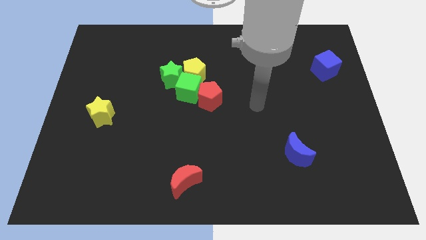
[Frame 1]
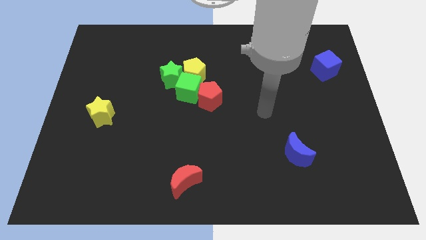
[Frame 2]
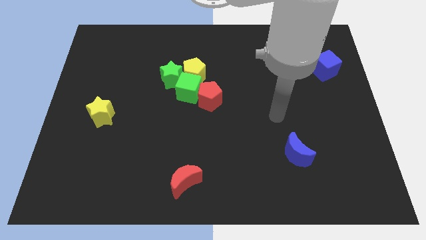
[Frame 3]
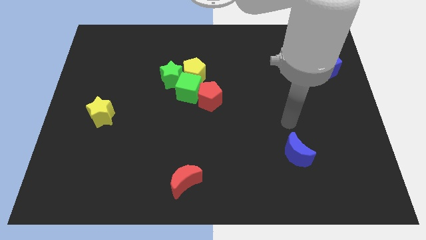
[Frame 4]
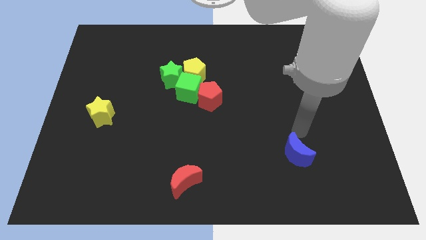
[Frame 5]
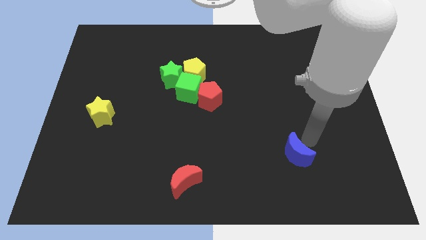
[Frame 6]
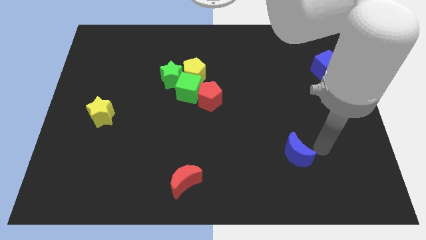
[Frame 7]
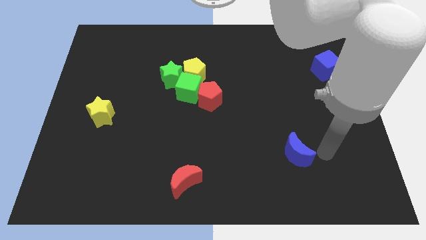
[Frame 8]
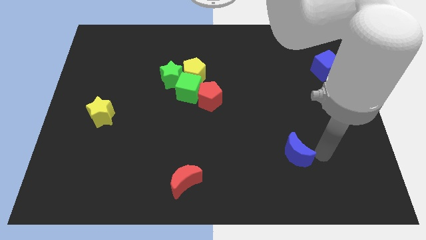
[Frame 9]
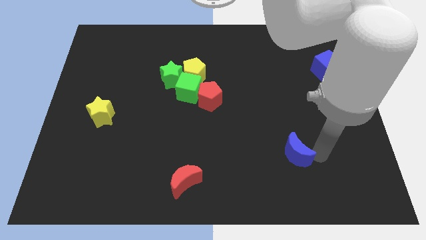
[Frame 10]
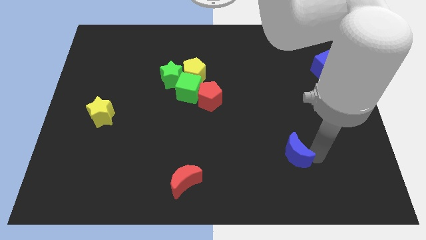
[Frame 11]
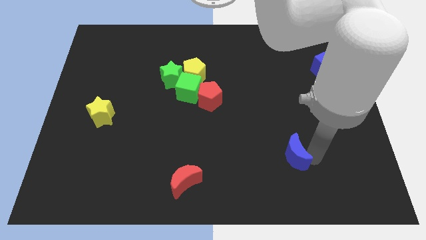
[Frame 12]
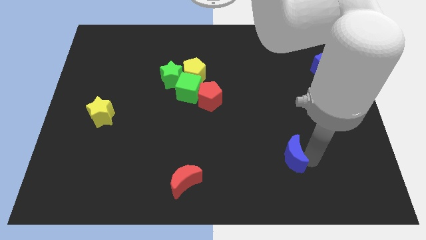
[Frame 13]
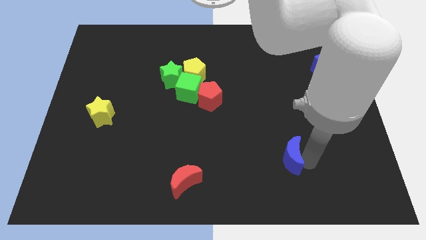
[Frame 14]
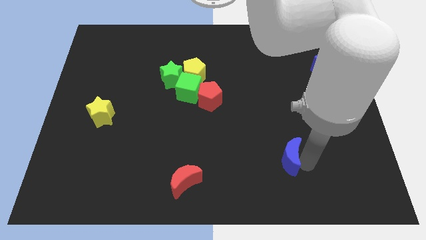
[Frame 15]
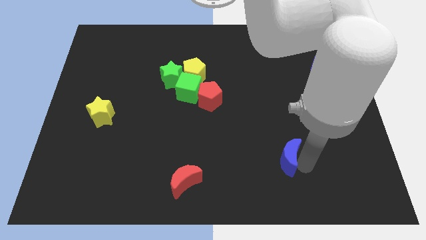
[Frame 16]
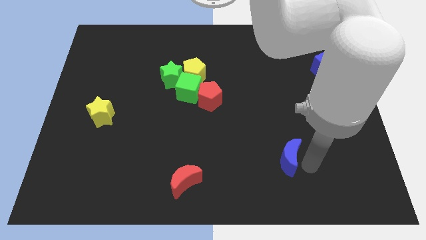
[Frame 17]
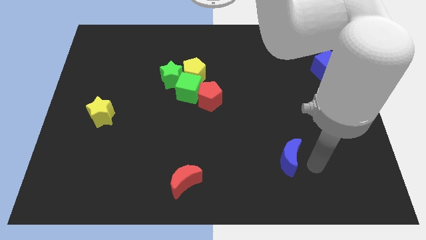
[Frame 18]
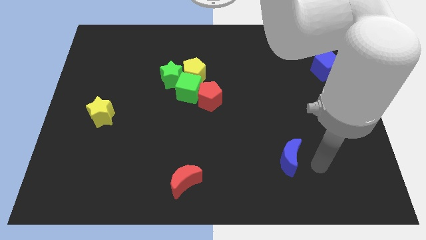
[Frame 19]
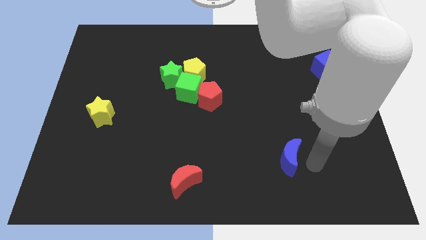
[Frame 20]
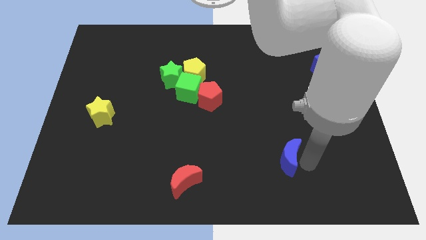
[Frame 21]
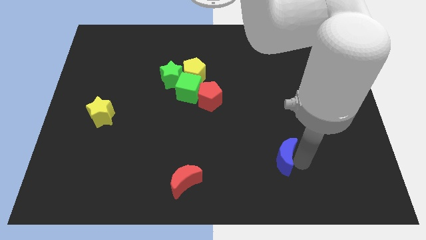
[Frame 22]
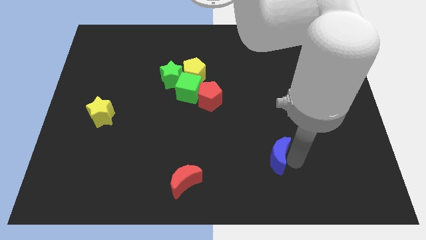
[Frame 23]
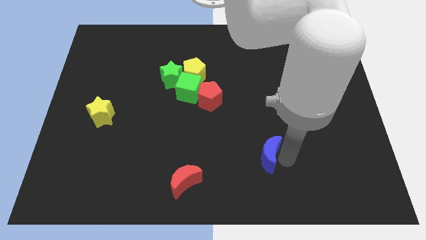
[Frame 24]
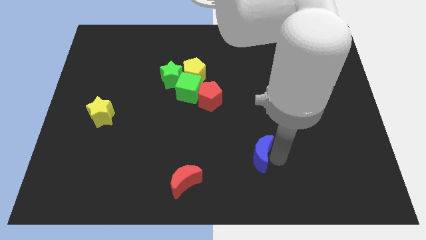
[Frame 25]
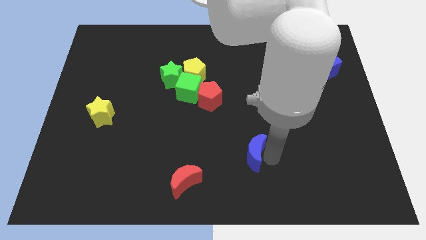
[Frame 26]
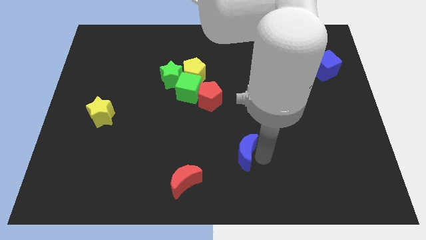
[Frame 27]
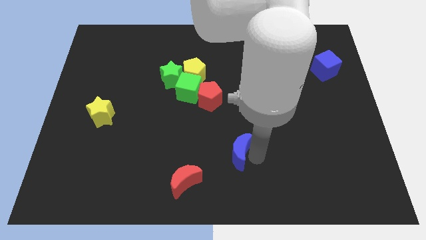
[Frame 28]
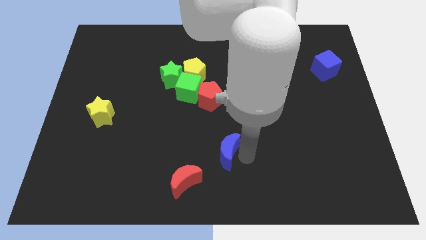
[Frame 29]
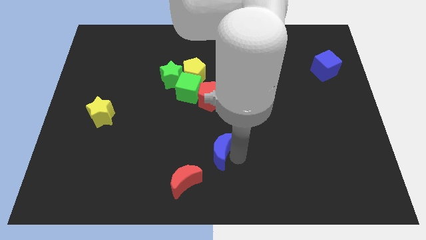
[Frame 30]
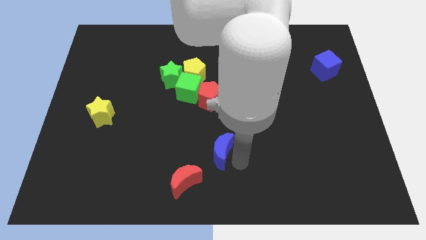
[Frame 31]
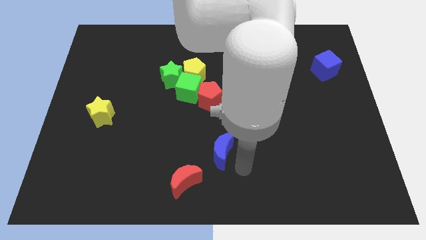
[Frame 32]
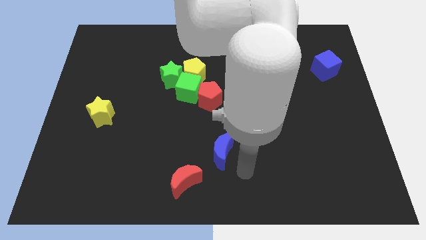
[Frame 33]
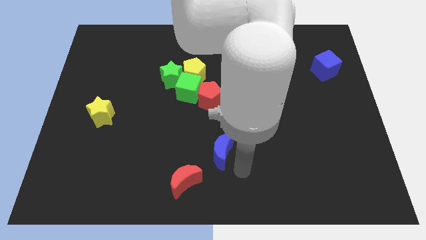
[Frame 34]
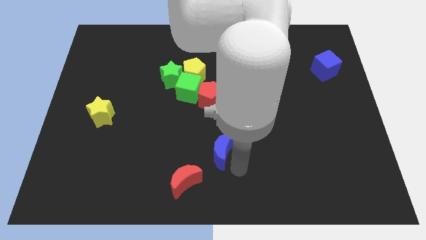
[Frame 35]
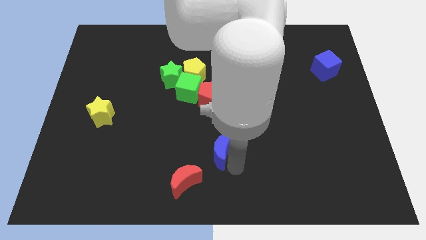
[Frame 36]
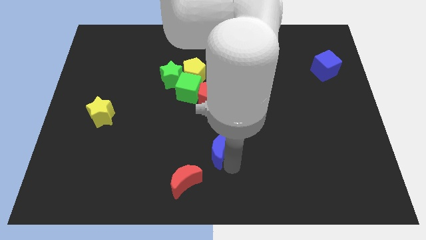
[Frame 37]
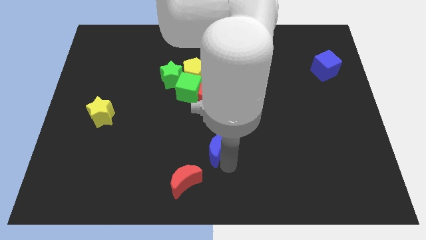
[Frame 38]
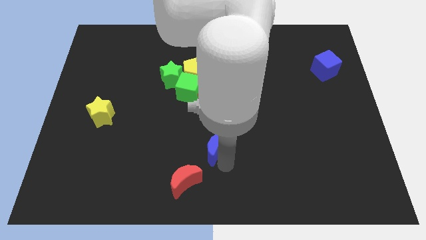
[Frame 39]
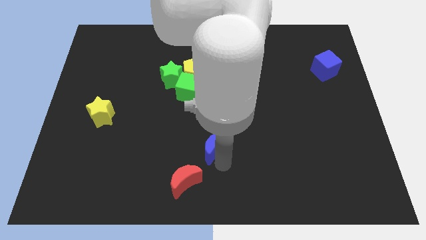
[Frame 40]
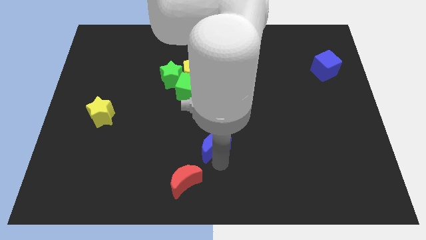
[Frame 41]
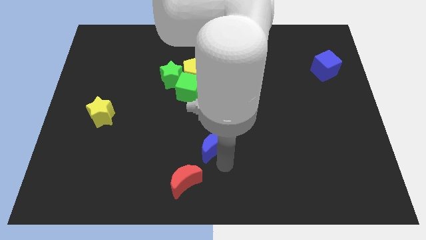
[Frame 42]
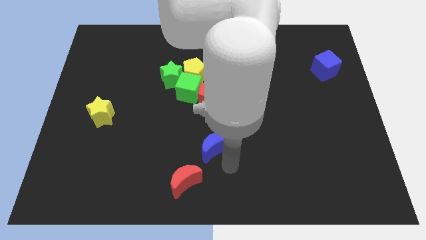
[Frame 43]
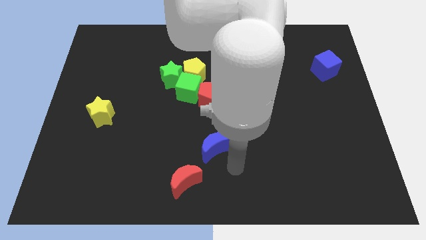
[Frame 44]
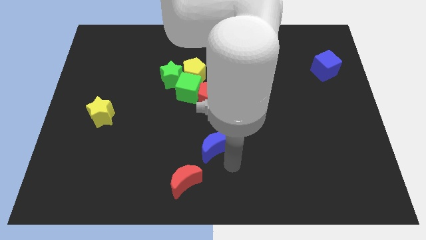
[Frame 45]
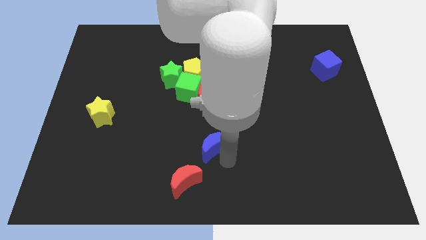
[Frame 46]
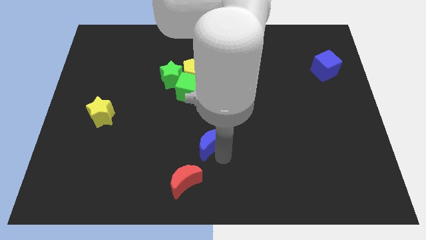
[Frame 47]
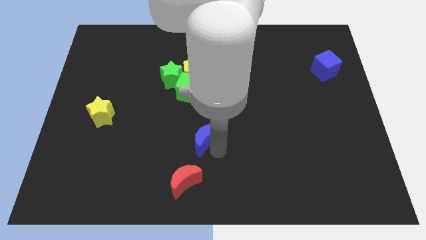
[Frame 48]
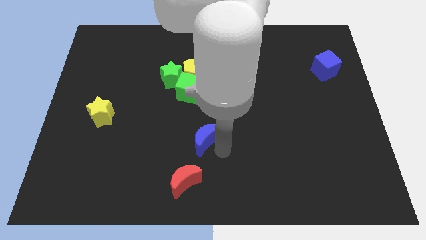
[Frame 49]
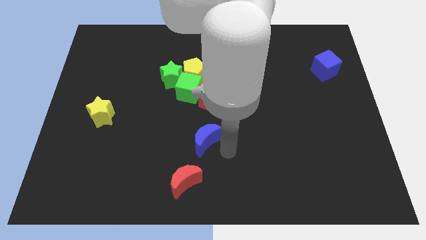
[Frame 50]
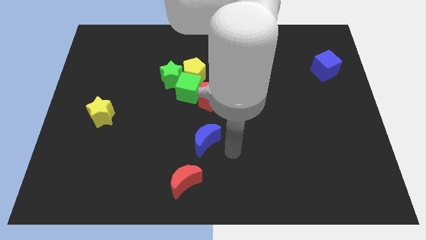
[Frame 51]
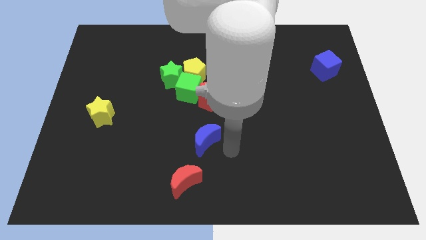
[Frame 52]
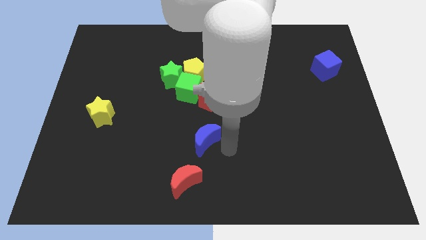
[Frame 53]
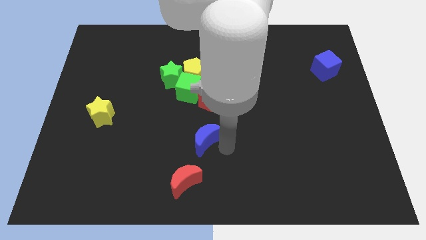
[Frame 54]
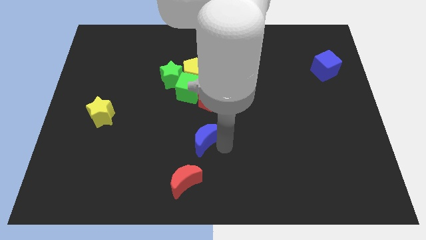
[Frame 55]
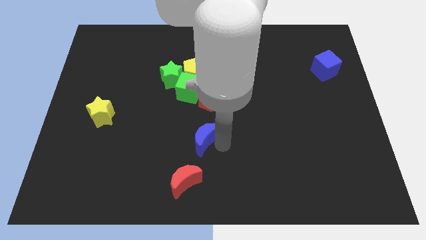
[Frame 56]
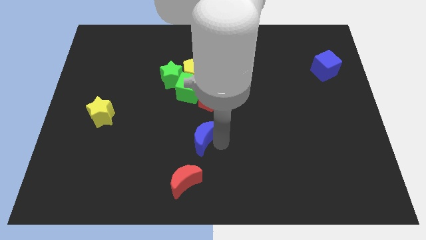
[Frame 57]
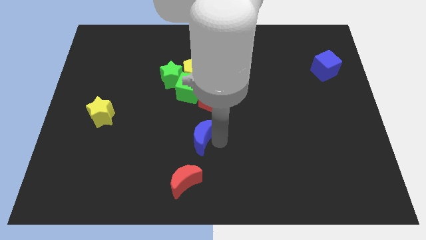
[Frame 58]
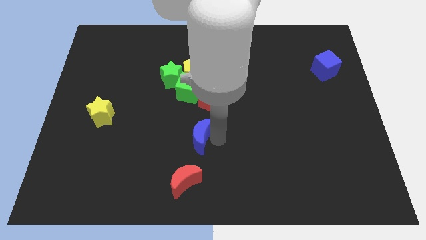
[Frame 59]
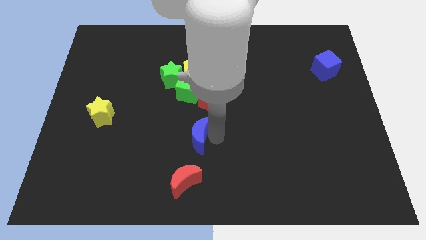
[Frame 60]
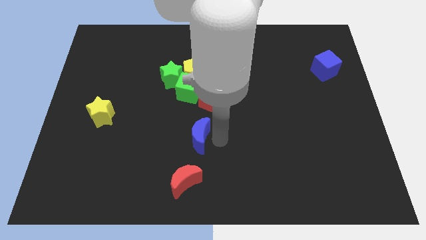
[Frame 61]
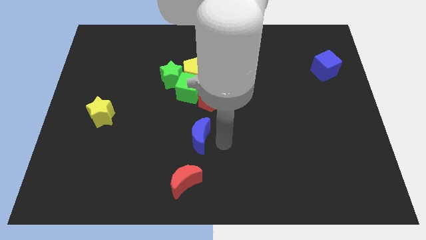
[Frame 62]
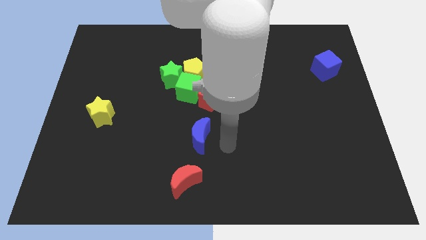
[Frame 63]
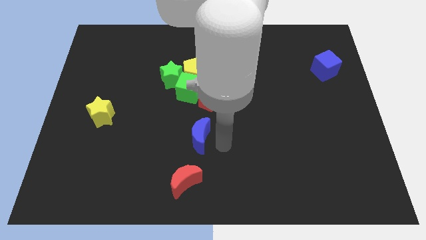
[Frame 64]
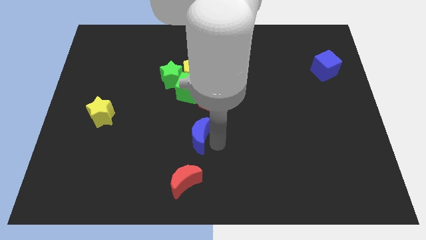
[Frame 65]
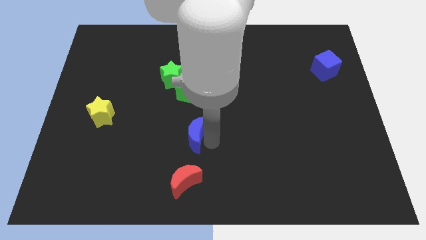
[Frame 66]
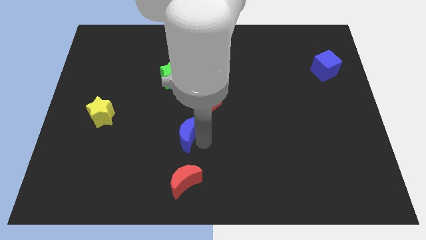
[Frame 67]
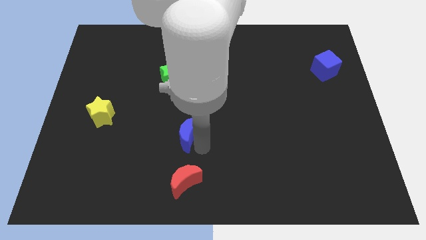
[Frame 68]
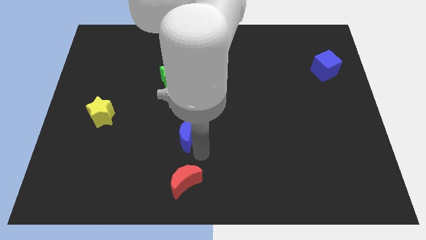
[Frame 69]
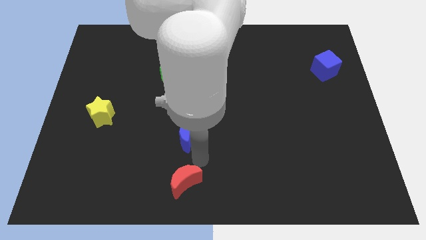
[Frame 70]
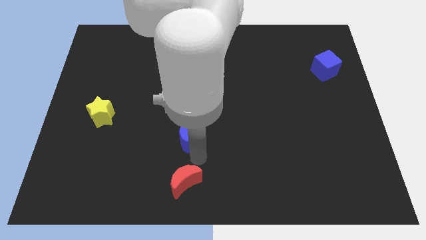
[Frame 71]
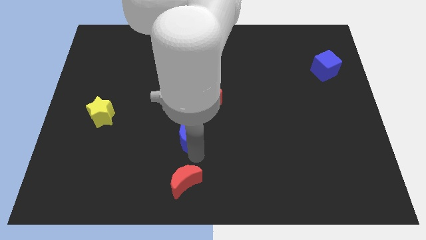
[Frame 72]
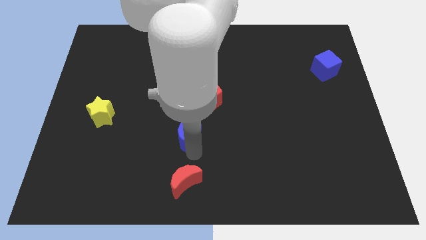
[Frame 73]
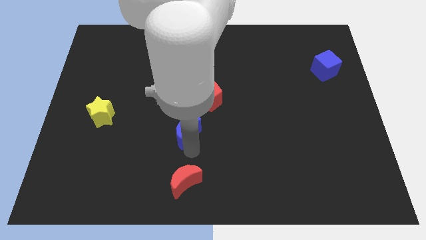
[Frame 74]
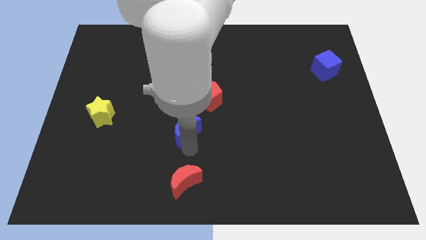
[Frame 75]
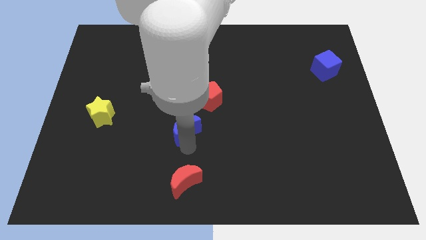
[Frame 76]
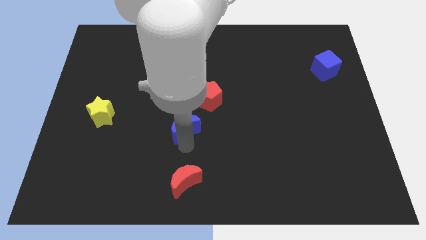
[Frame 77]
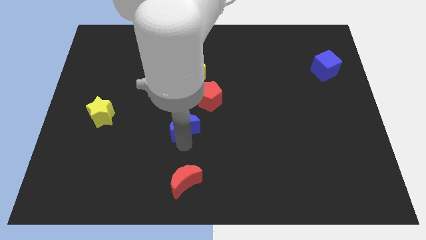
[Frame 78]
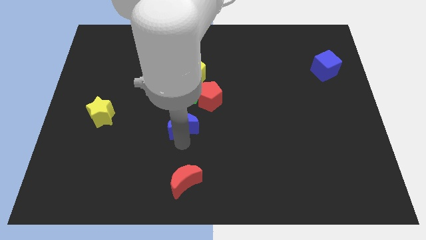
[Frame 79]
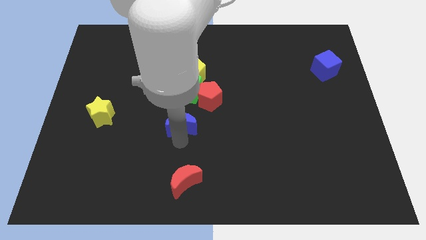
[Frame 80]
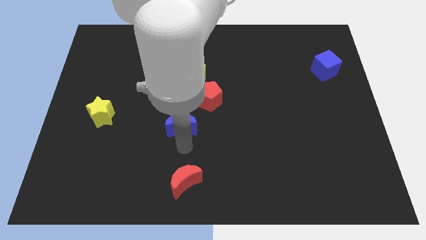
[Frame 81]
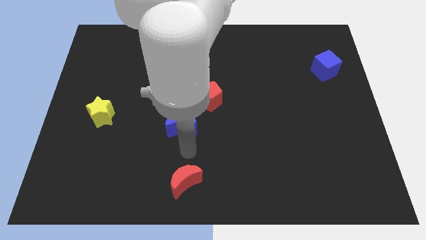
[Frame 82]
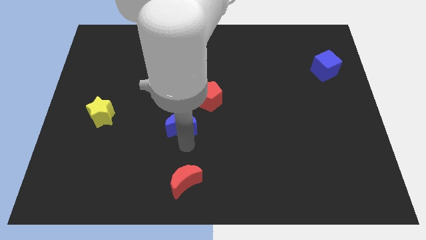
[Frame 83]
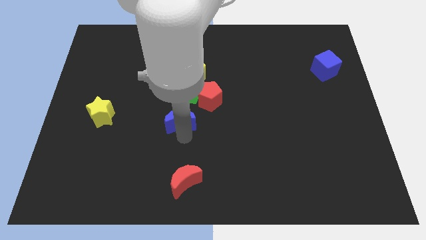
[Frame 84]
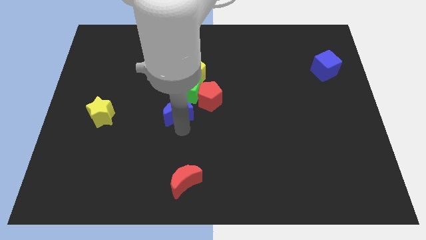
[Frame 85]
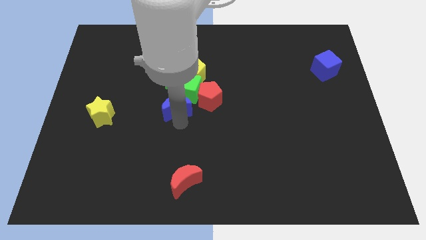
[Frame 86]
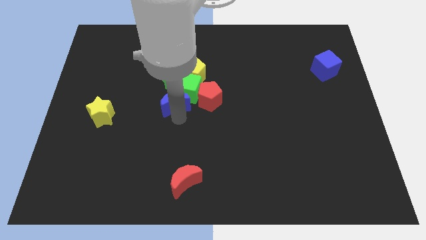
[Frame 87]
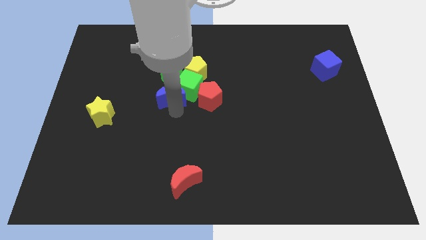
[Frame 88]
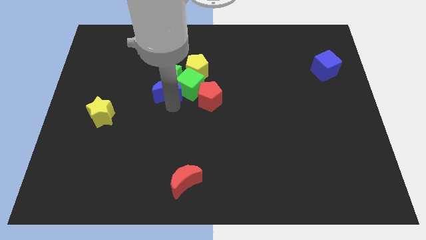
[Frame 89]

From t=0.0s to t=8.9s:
put the blue moon towards the green star
